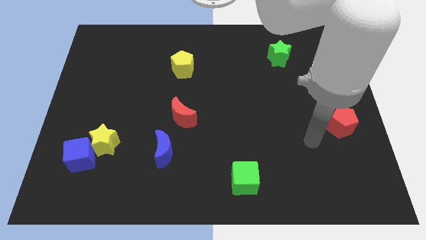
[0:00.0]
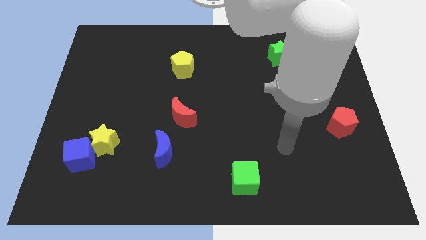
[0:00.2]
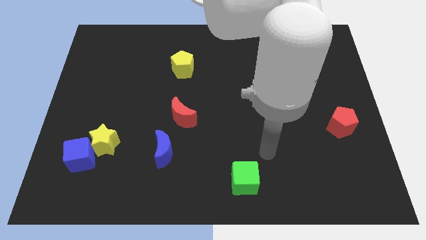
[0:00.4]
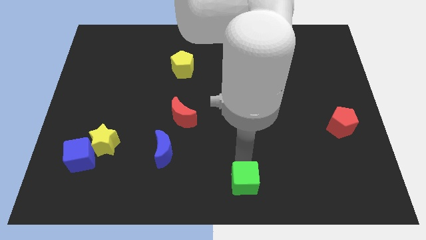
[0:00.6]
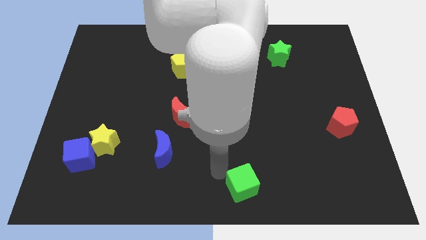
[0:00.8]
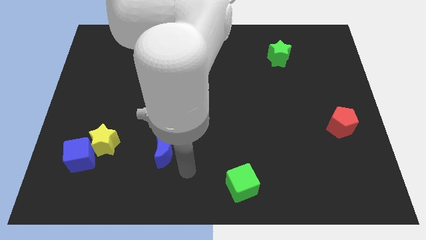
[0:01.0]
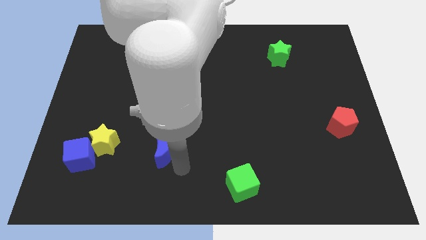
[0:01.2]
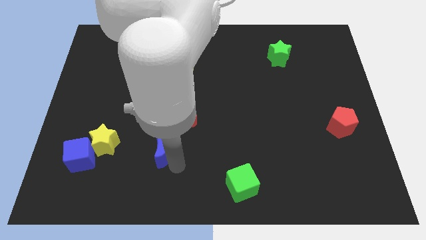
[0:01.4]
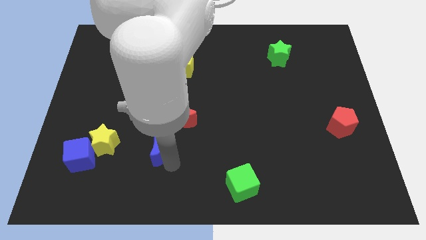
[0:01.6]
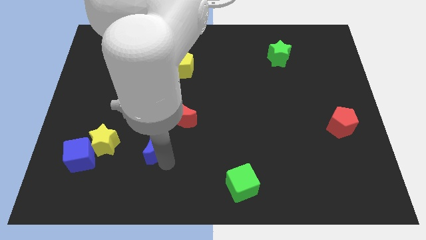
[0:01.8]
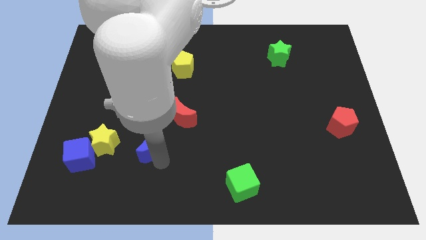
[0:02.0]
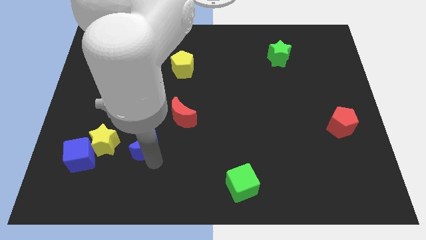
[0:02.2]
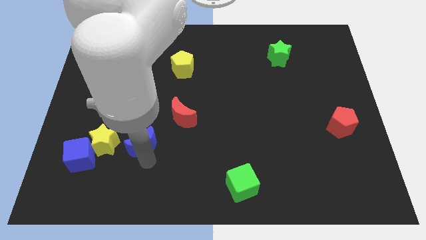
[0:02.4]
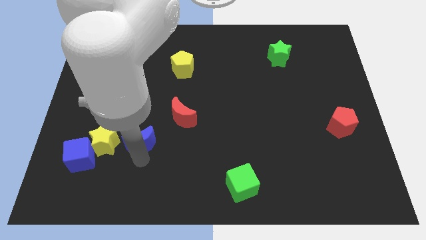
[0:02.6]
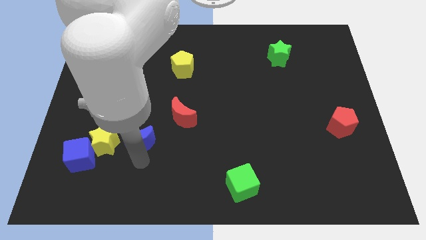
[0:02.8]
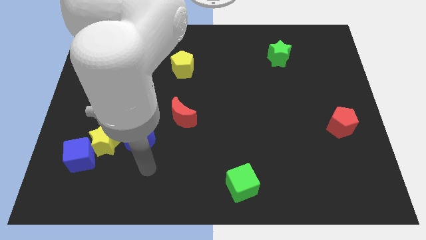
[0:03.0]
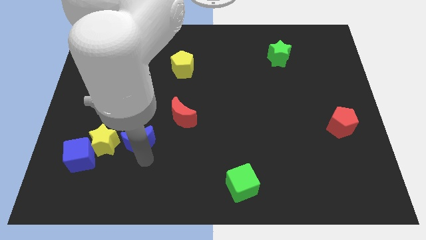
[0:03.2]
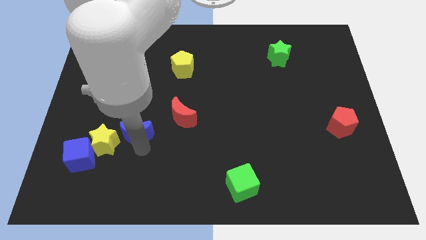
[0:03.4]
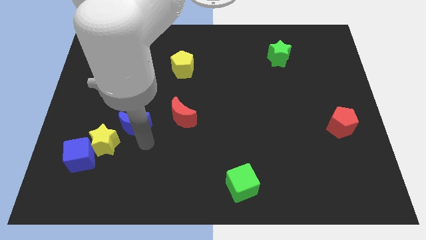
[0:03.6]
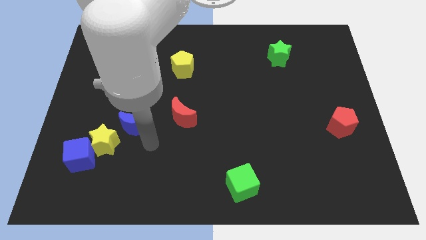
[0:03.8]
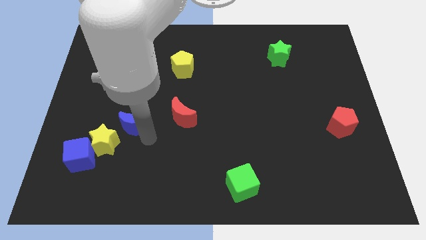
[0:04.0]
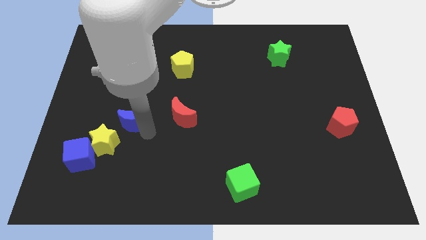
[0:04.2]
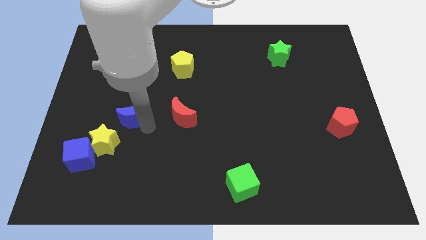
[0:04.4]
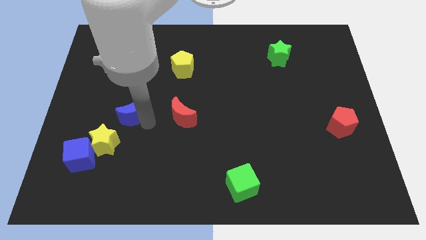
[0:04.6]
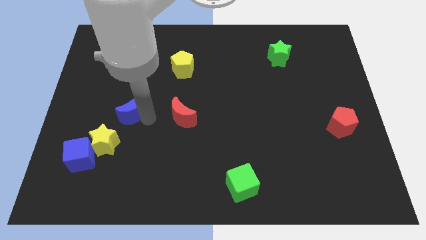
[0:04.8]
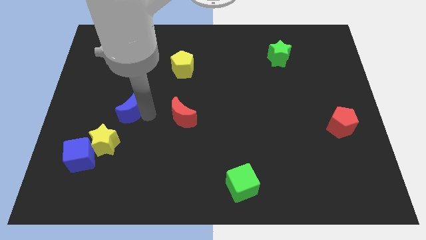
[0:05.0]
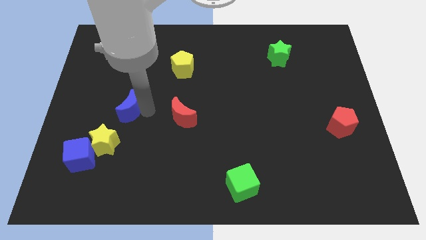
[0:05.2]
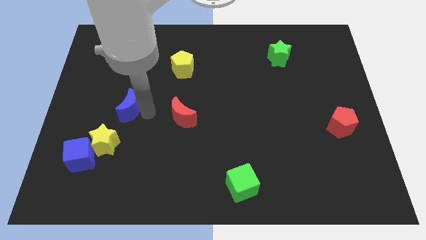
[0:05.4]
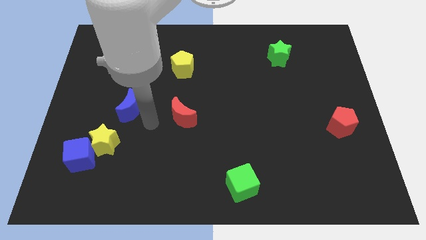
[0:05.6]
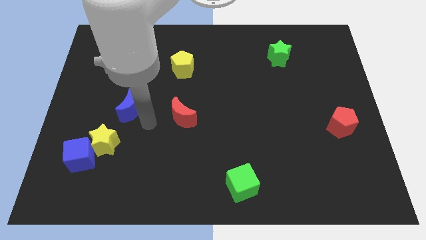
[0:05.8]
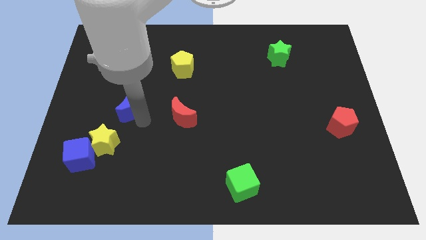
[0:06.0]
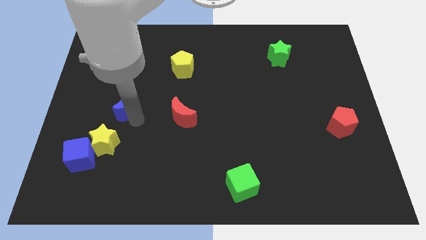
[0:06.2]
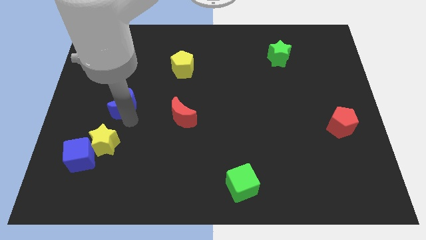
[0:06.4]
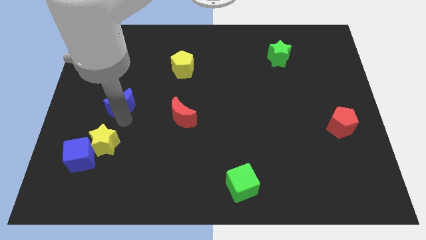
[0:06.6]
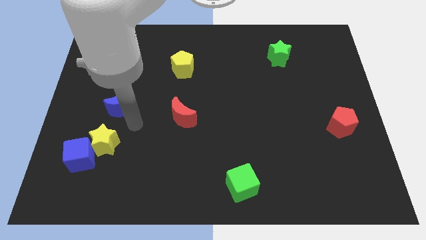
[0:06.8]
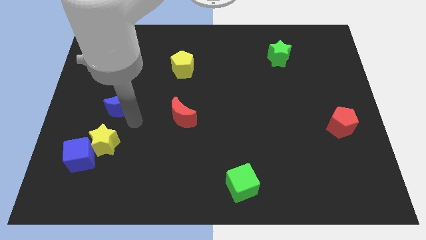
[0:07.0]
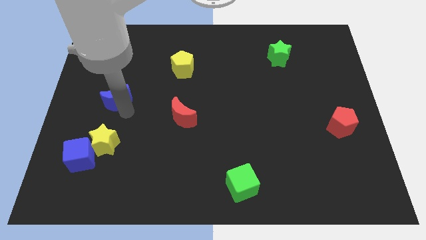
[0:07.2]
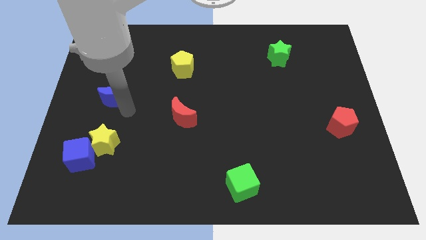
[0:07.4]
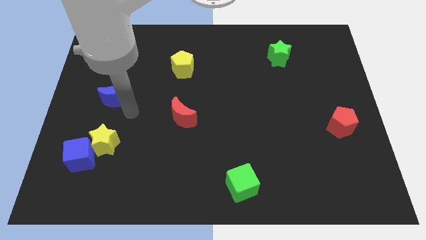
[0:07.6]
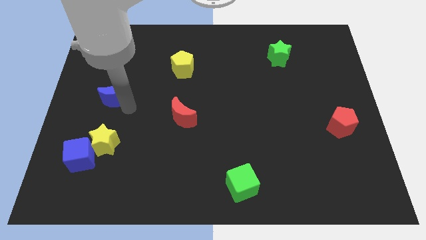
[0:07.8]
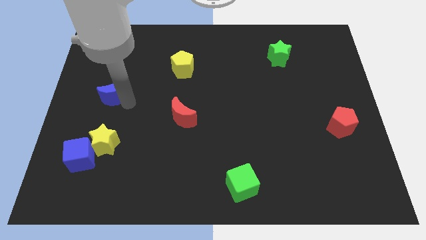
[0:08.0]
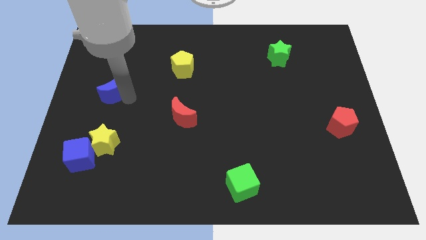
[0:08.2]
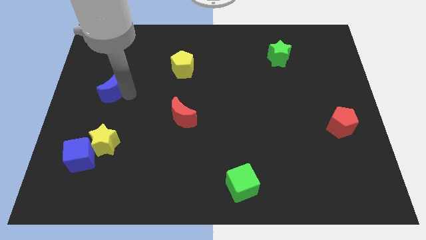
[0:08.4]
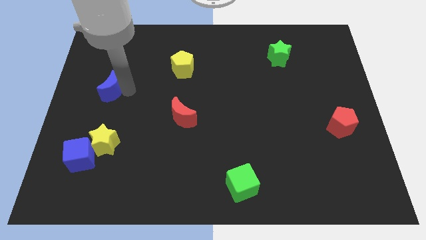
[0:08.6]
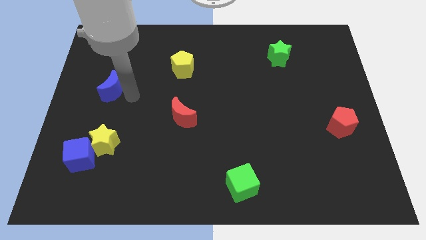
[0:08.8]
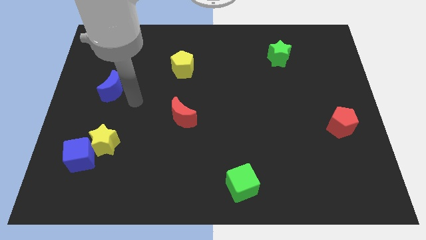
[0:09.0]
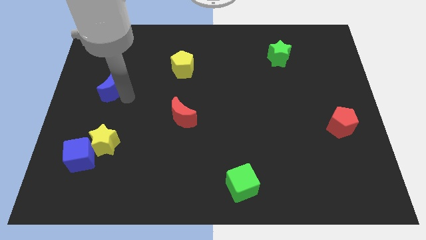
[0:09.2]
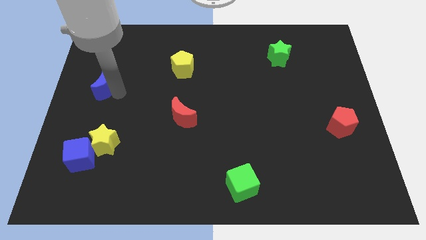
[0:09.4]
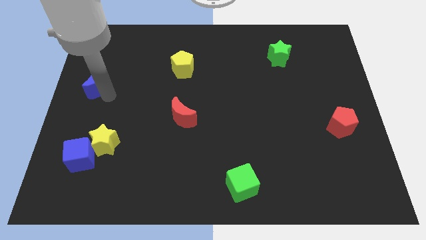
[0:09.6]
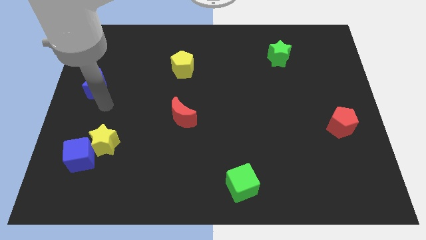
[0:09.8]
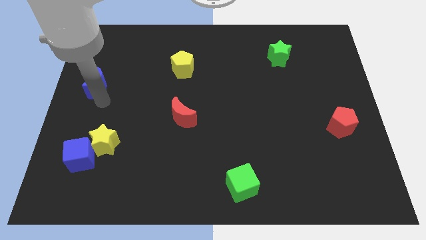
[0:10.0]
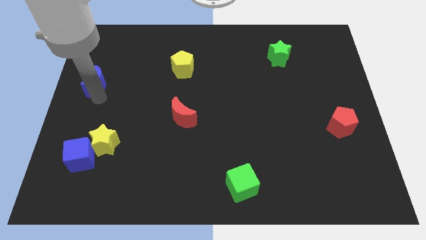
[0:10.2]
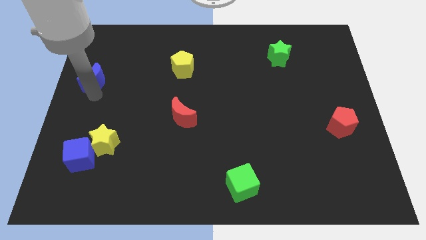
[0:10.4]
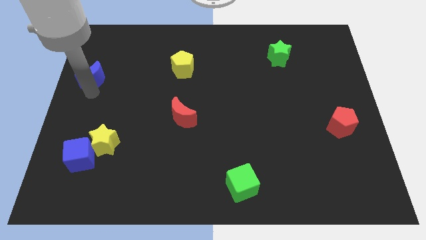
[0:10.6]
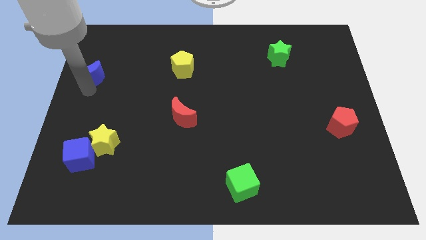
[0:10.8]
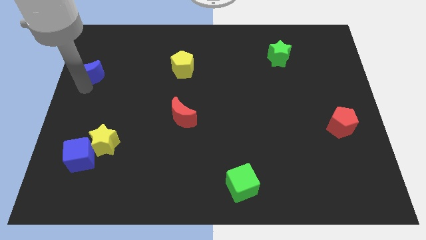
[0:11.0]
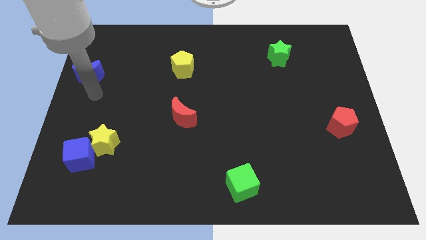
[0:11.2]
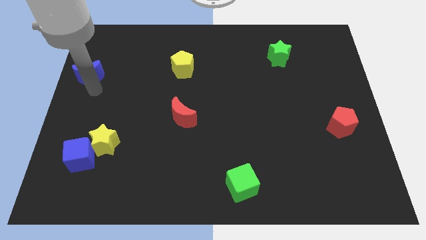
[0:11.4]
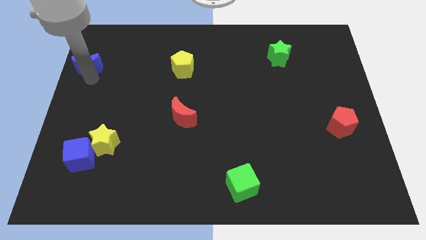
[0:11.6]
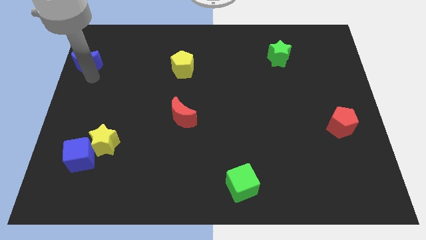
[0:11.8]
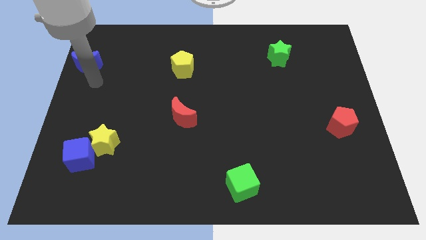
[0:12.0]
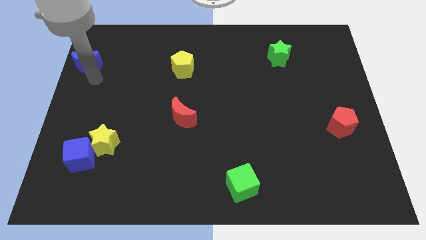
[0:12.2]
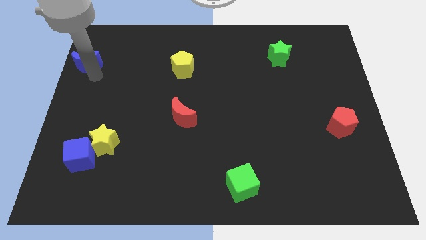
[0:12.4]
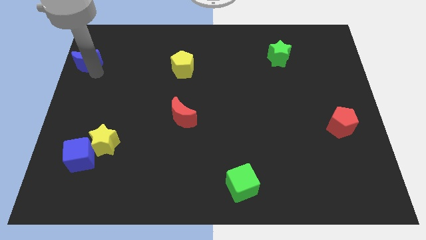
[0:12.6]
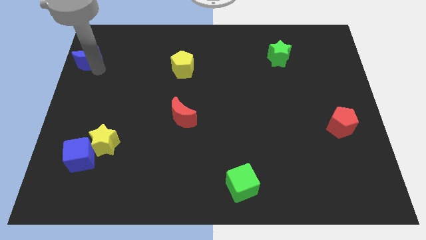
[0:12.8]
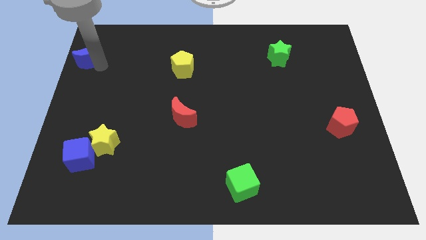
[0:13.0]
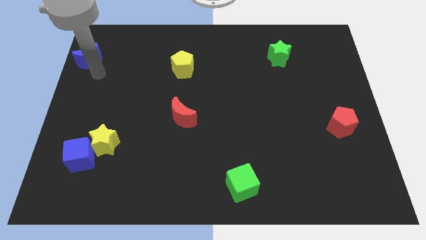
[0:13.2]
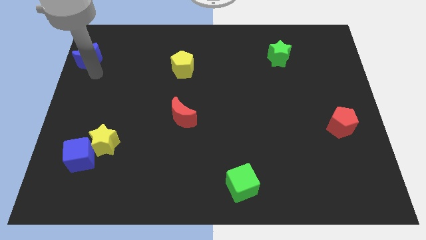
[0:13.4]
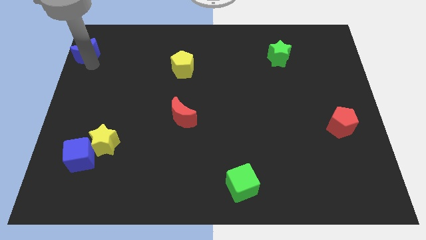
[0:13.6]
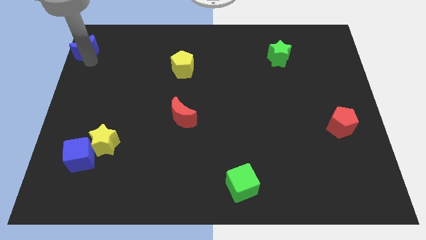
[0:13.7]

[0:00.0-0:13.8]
move the blue moon to the top left

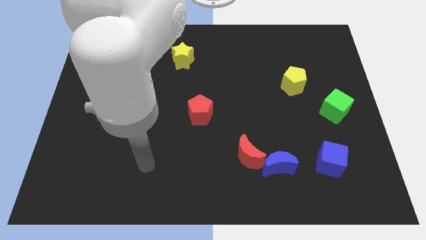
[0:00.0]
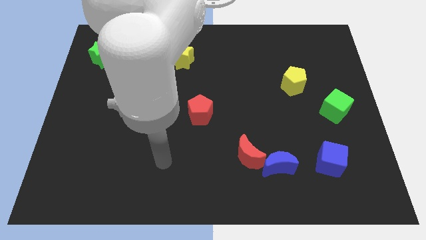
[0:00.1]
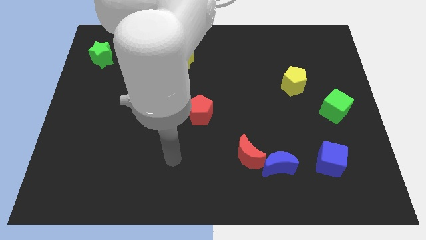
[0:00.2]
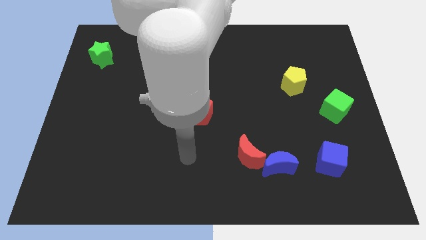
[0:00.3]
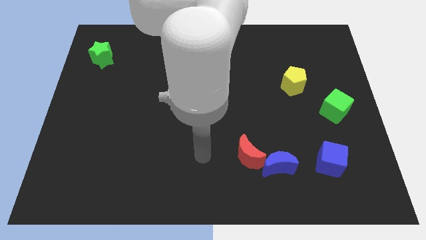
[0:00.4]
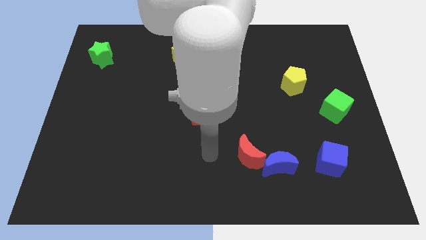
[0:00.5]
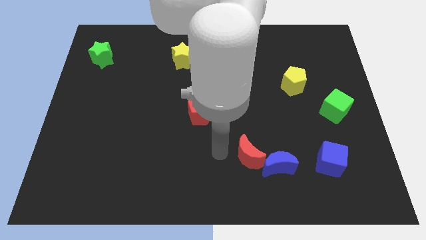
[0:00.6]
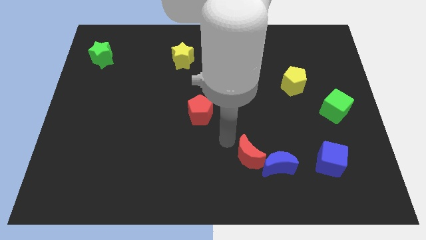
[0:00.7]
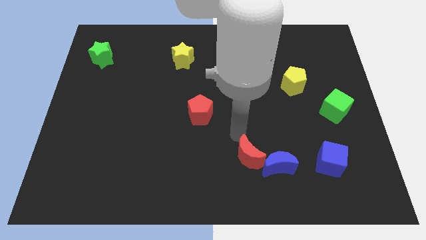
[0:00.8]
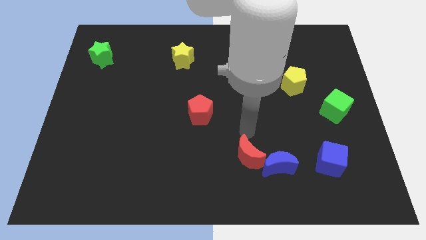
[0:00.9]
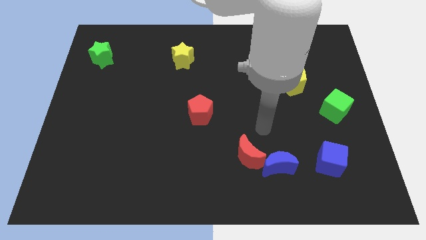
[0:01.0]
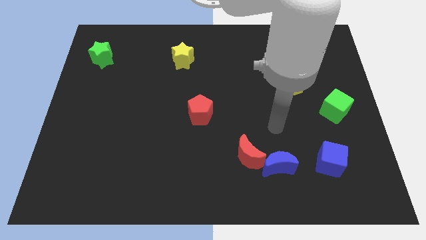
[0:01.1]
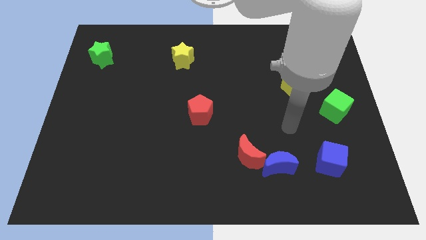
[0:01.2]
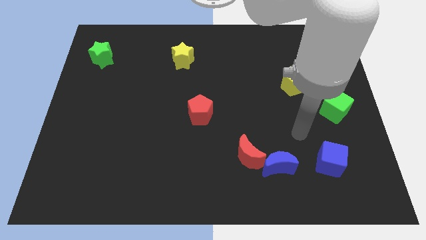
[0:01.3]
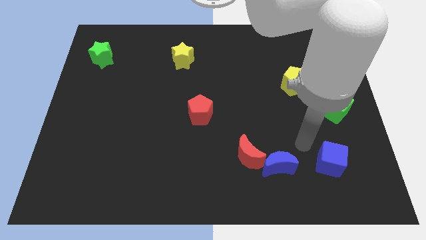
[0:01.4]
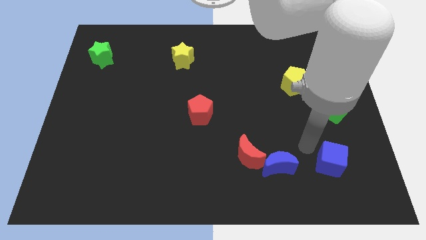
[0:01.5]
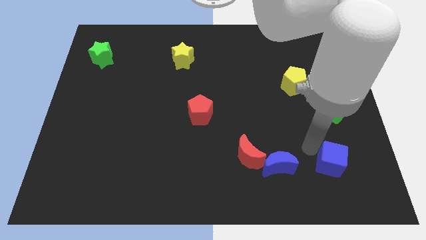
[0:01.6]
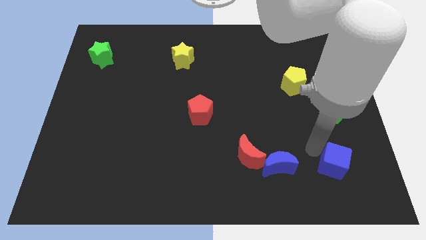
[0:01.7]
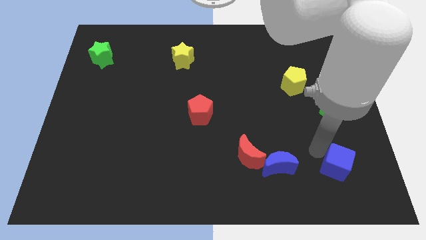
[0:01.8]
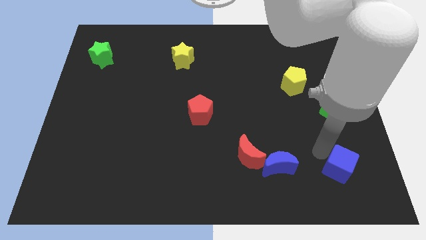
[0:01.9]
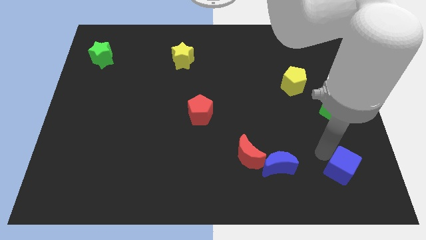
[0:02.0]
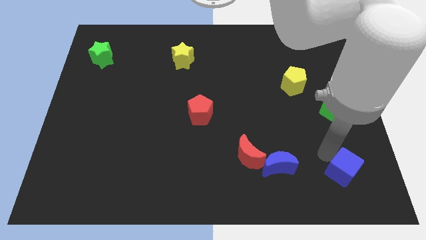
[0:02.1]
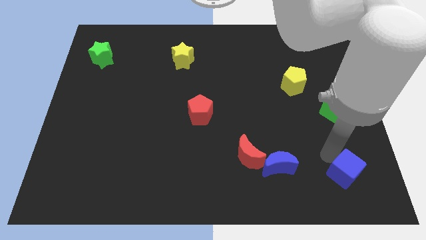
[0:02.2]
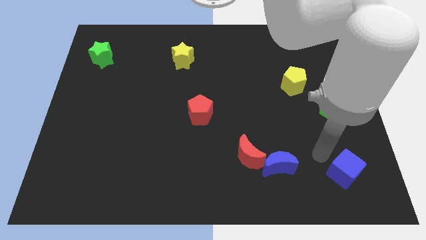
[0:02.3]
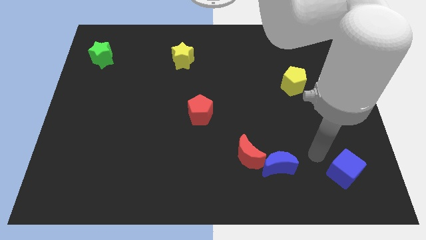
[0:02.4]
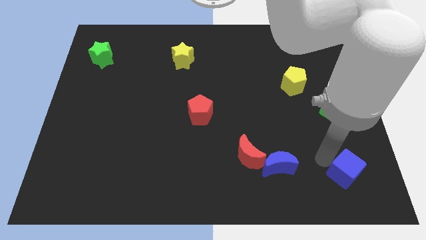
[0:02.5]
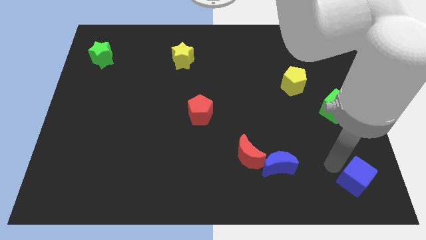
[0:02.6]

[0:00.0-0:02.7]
put the blue cube to the bottom right
